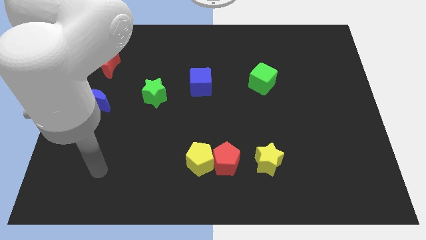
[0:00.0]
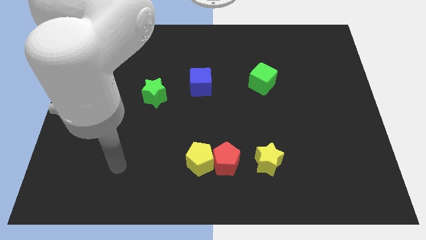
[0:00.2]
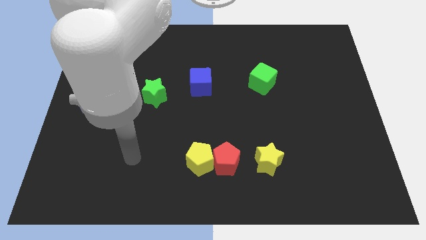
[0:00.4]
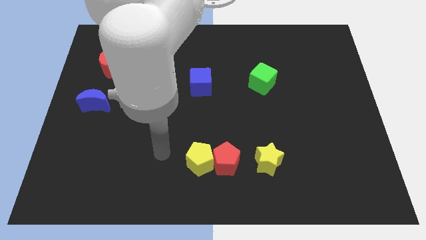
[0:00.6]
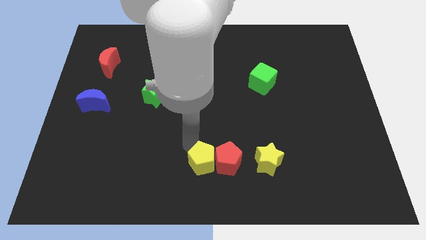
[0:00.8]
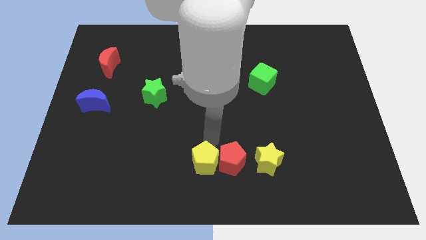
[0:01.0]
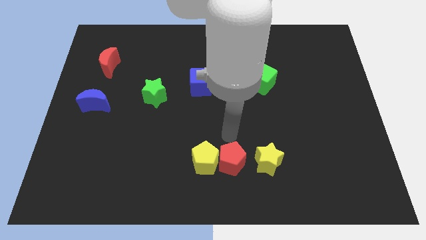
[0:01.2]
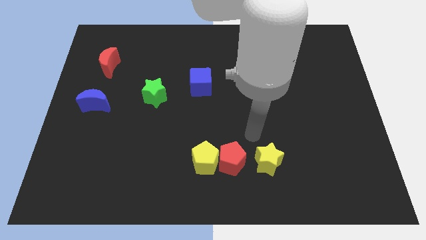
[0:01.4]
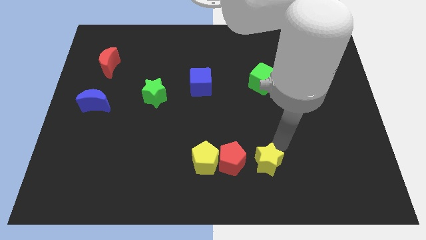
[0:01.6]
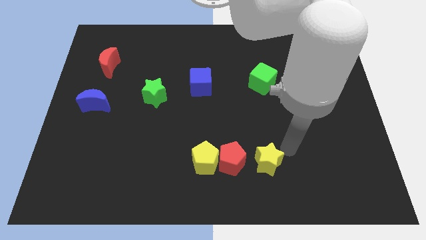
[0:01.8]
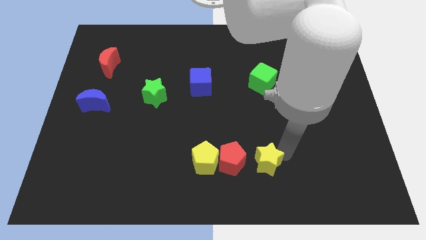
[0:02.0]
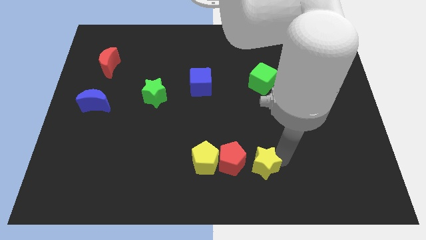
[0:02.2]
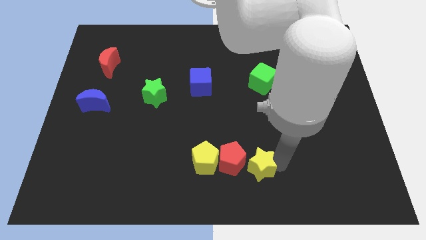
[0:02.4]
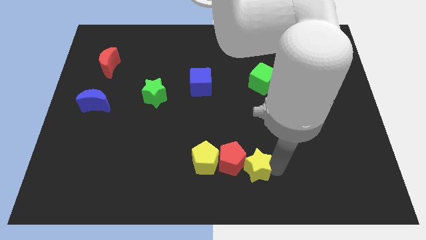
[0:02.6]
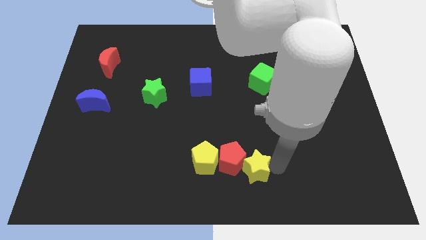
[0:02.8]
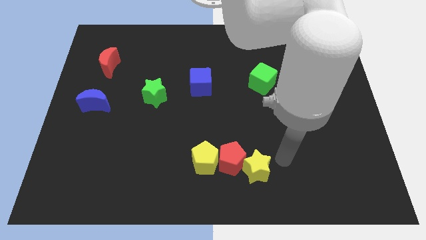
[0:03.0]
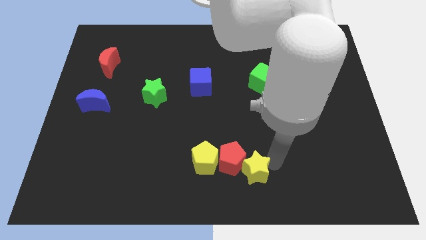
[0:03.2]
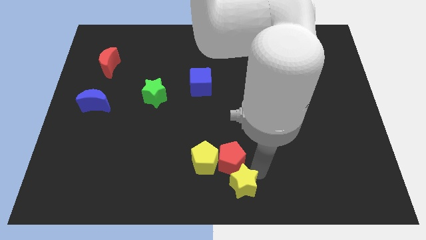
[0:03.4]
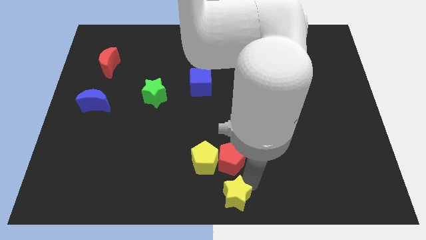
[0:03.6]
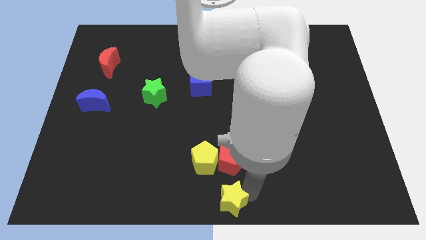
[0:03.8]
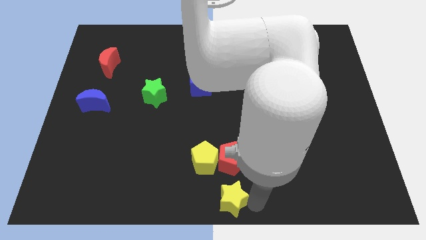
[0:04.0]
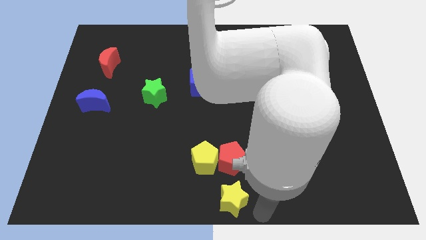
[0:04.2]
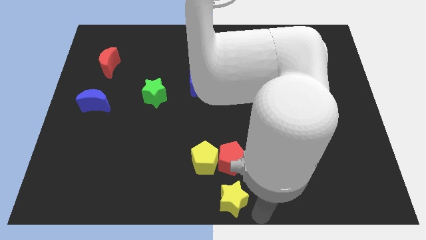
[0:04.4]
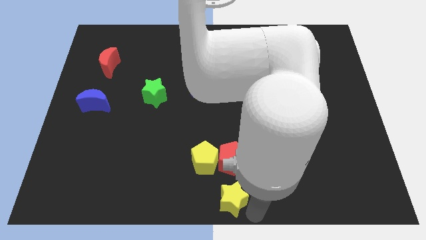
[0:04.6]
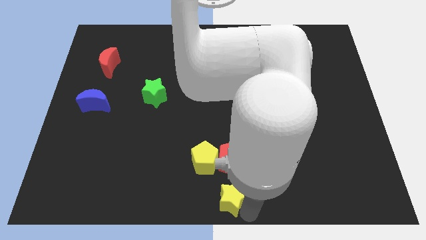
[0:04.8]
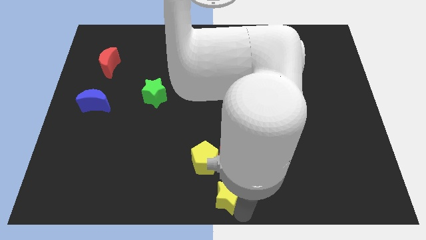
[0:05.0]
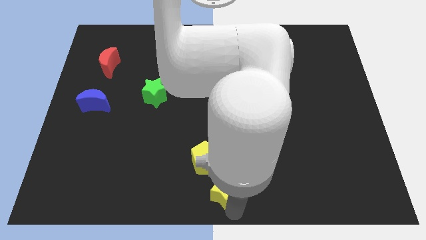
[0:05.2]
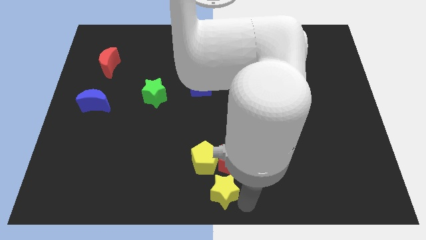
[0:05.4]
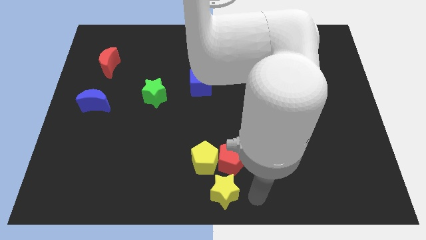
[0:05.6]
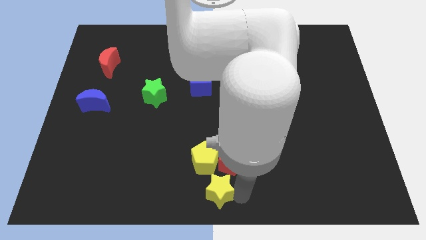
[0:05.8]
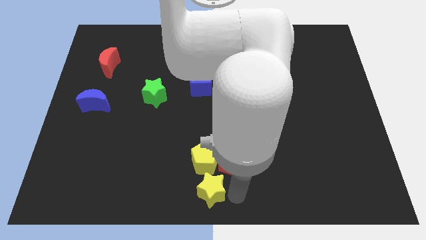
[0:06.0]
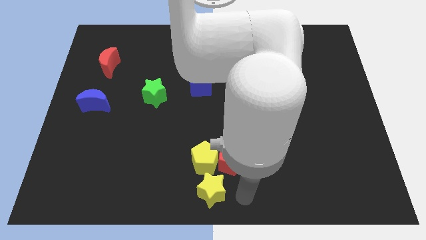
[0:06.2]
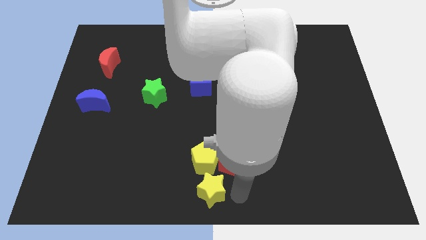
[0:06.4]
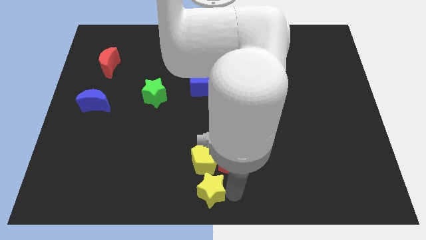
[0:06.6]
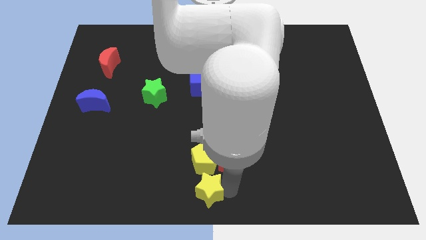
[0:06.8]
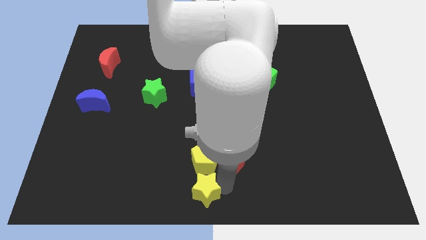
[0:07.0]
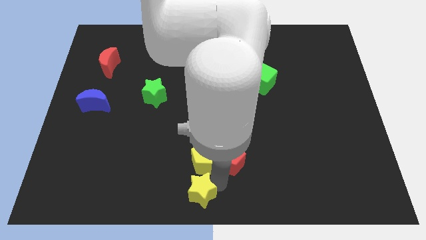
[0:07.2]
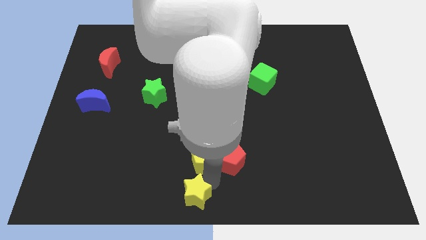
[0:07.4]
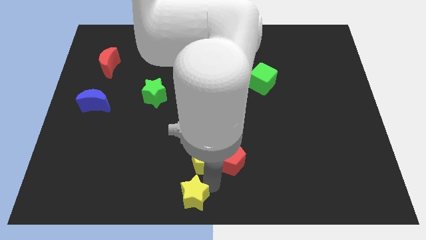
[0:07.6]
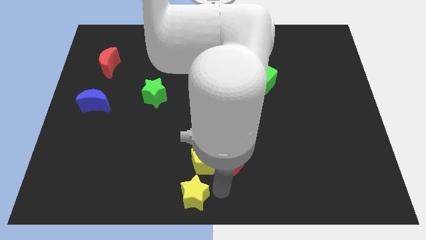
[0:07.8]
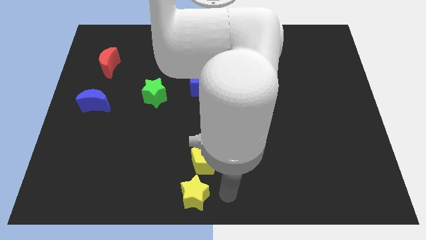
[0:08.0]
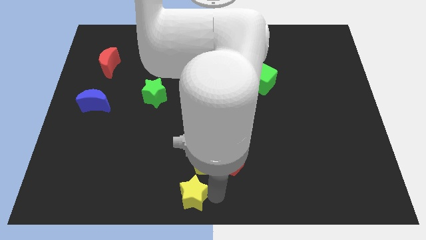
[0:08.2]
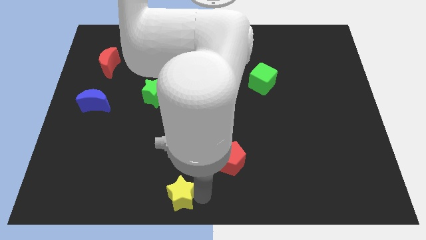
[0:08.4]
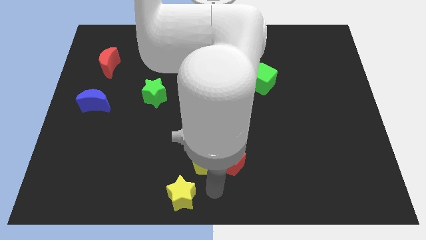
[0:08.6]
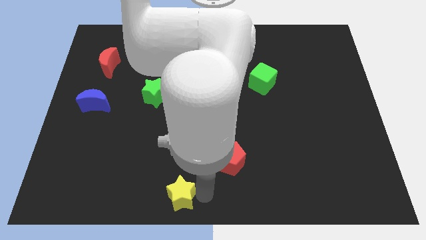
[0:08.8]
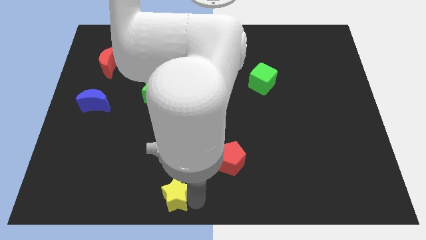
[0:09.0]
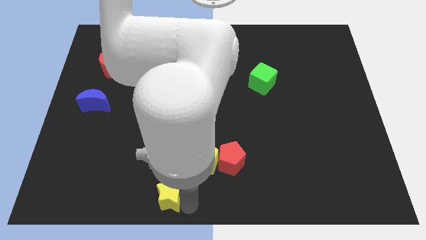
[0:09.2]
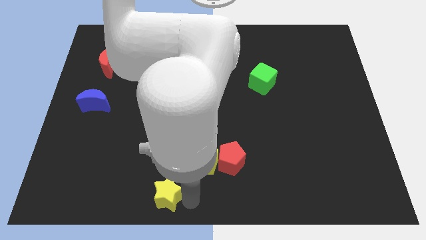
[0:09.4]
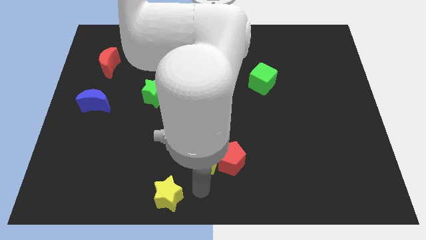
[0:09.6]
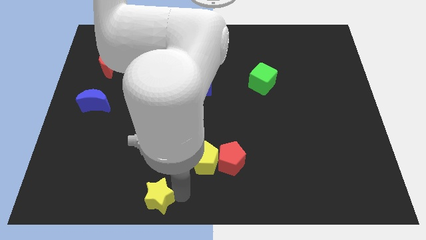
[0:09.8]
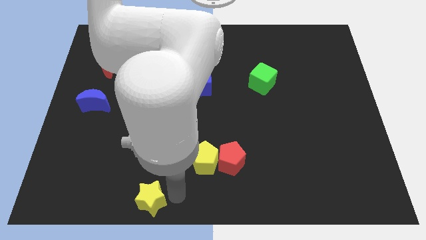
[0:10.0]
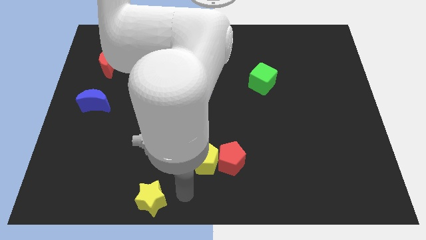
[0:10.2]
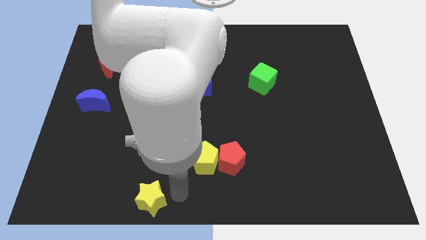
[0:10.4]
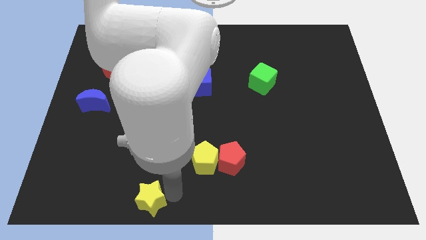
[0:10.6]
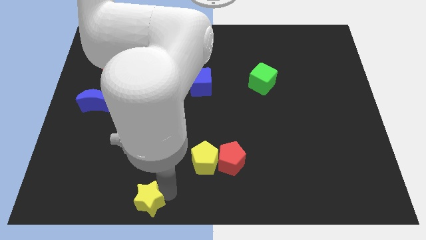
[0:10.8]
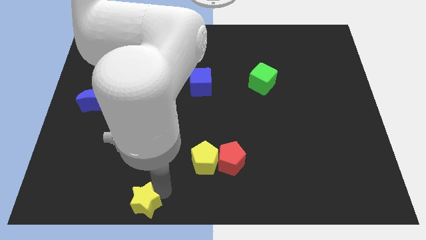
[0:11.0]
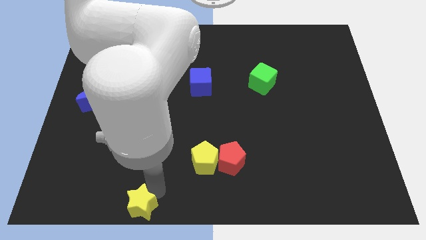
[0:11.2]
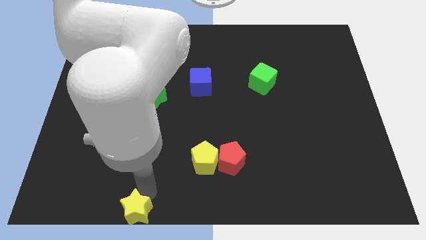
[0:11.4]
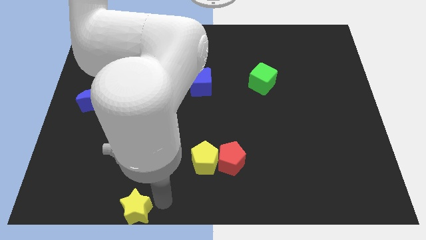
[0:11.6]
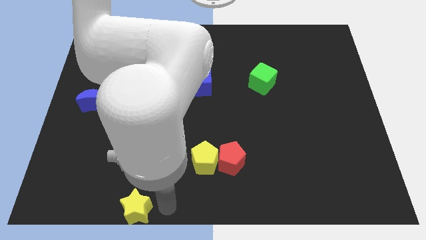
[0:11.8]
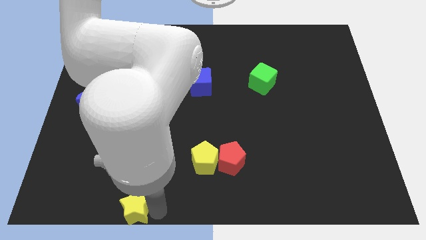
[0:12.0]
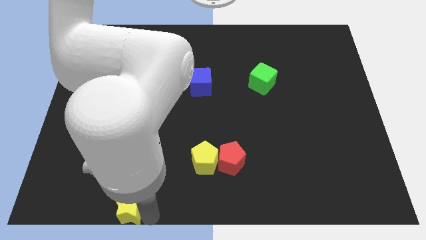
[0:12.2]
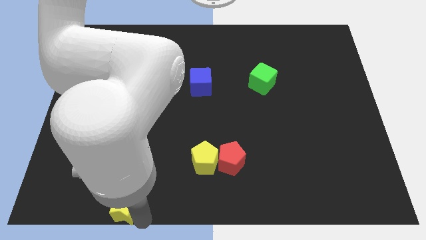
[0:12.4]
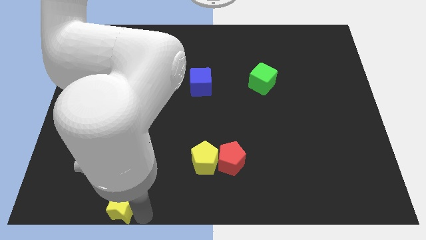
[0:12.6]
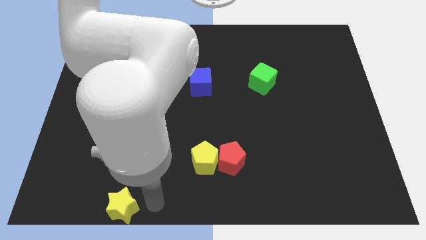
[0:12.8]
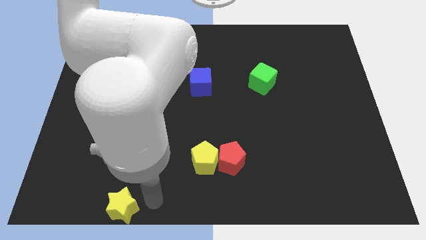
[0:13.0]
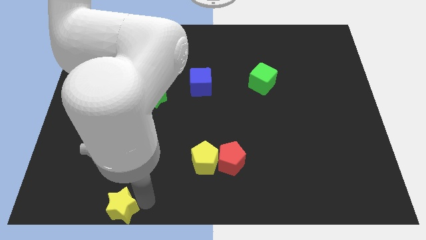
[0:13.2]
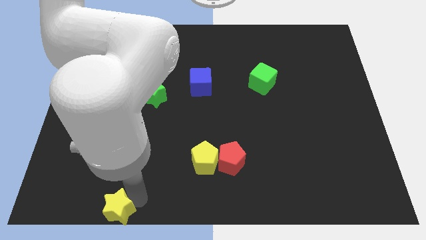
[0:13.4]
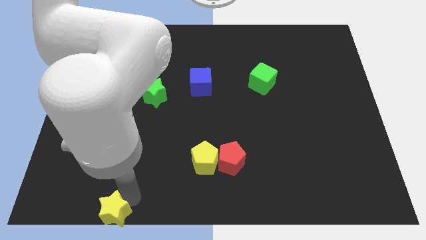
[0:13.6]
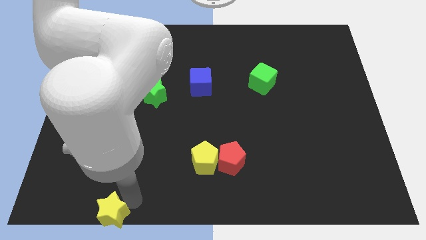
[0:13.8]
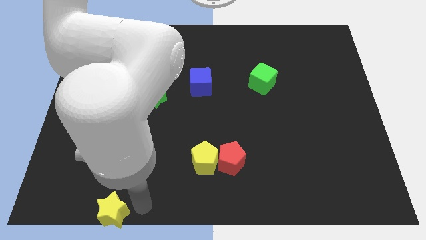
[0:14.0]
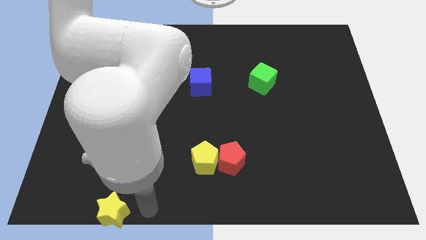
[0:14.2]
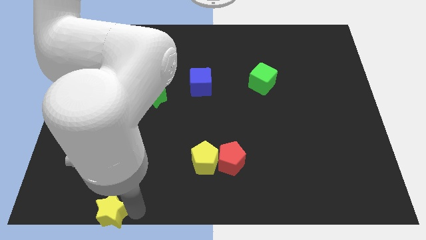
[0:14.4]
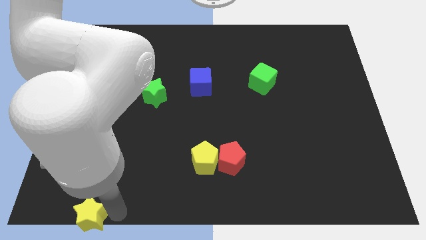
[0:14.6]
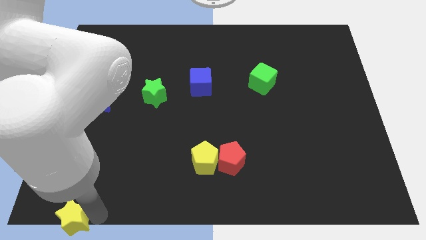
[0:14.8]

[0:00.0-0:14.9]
slide the yellow star to the bottom left of the board
